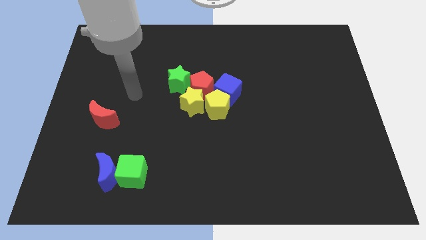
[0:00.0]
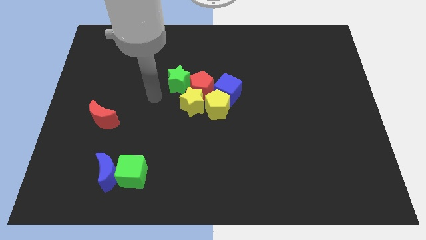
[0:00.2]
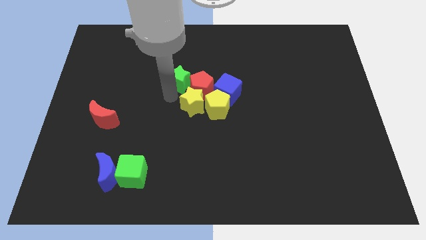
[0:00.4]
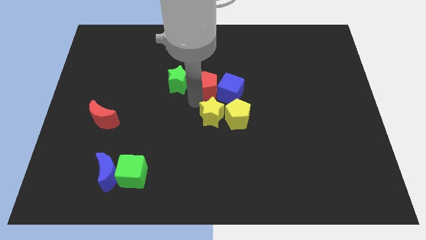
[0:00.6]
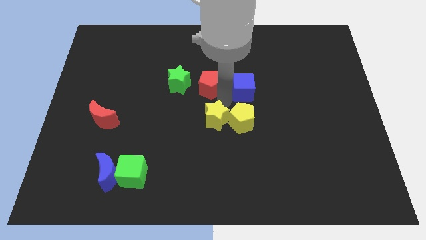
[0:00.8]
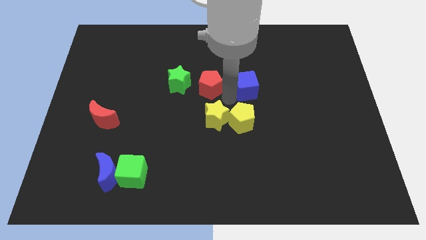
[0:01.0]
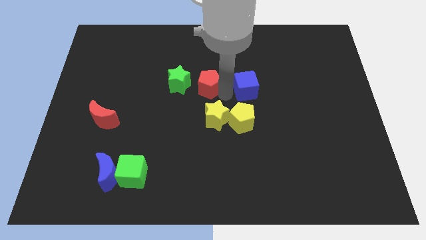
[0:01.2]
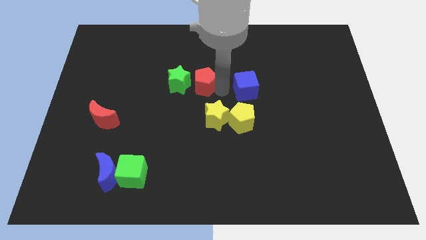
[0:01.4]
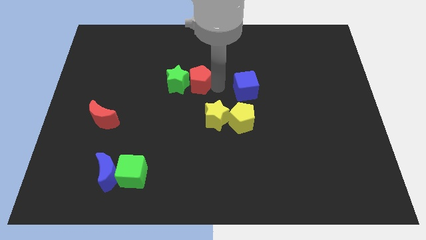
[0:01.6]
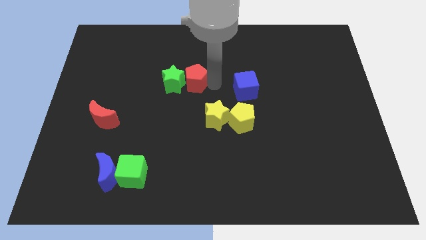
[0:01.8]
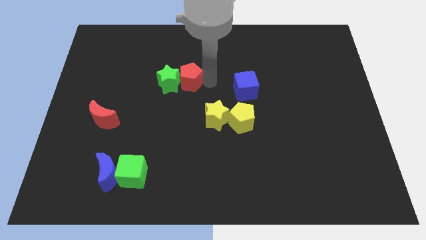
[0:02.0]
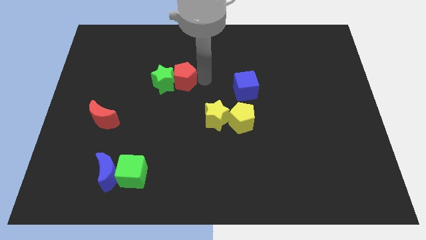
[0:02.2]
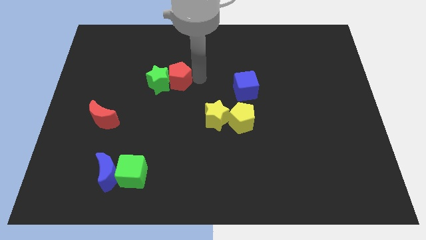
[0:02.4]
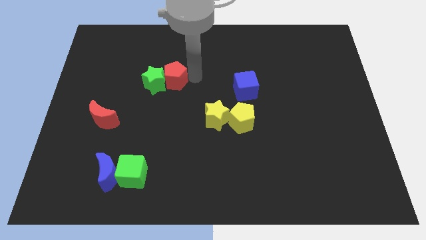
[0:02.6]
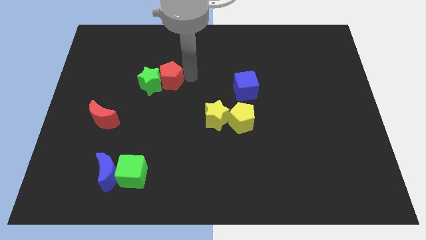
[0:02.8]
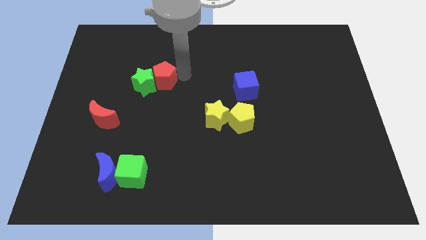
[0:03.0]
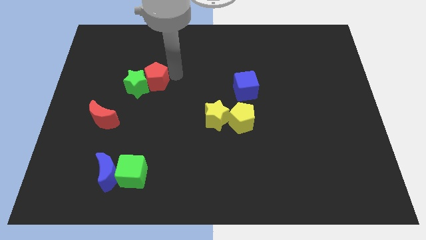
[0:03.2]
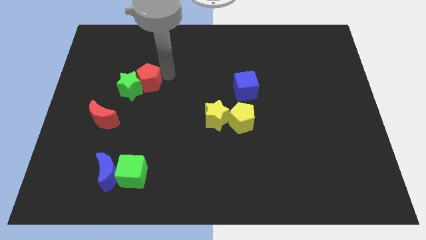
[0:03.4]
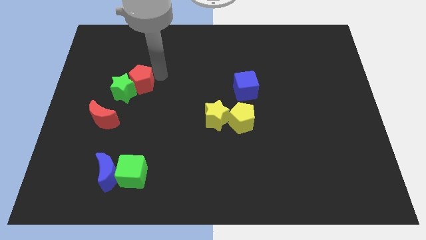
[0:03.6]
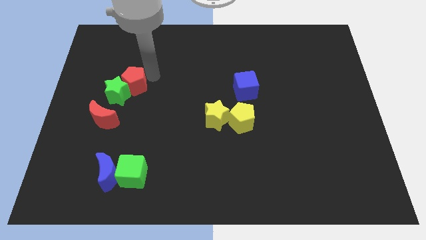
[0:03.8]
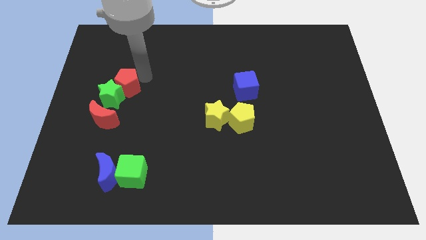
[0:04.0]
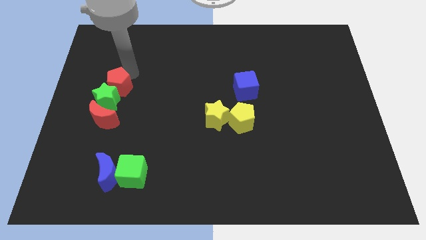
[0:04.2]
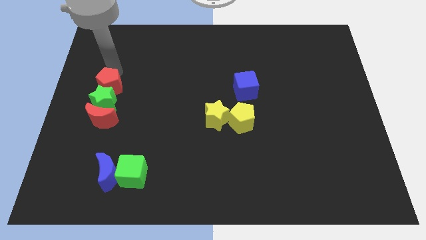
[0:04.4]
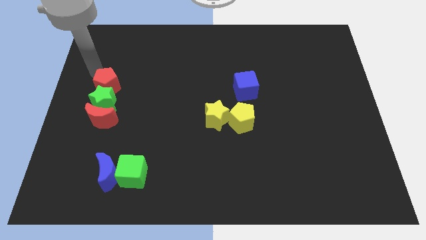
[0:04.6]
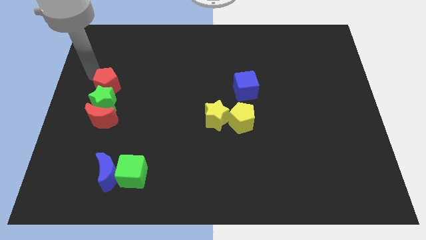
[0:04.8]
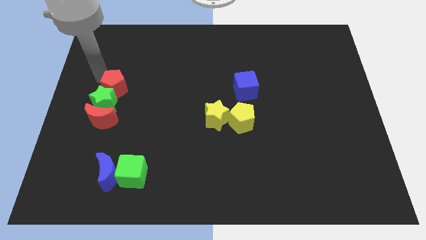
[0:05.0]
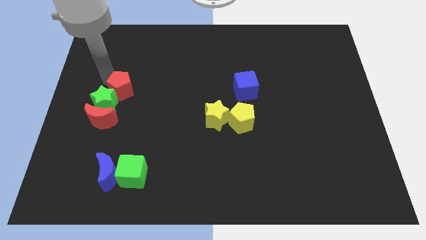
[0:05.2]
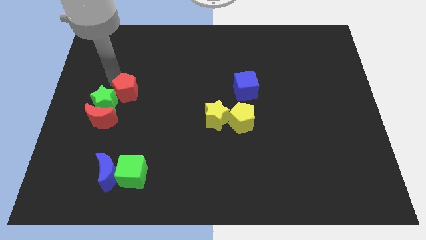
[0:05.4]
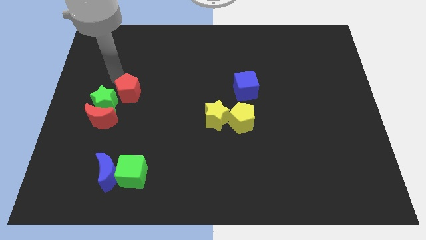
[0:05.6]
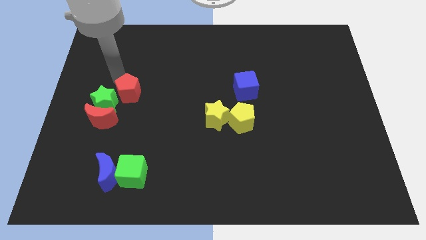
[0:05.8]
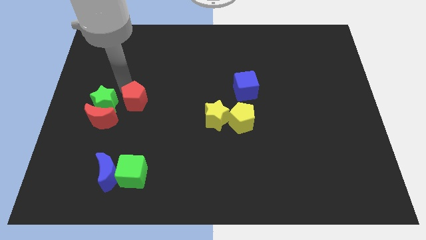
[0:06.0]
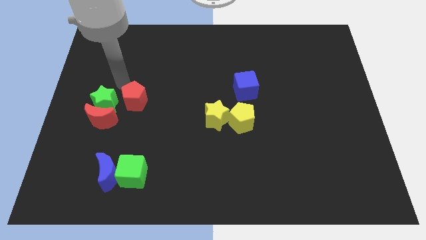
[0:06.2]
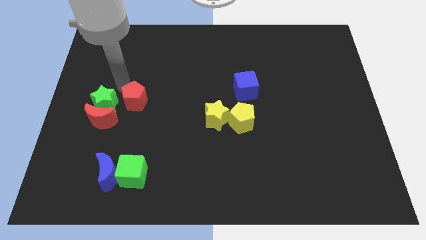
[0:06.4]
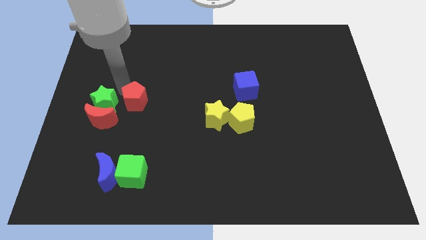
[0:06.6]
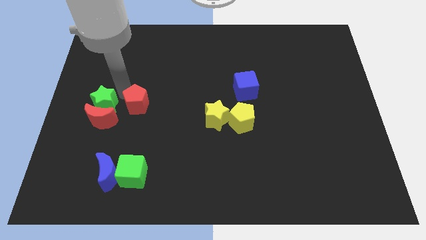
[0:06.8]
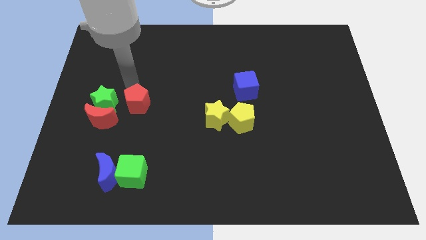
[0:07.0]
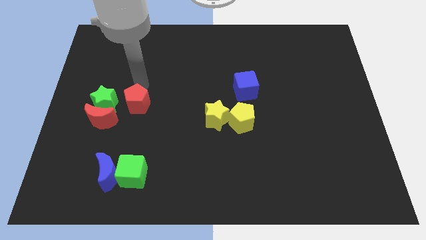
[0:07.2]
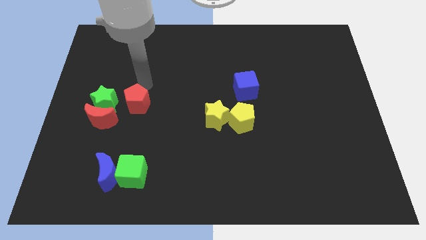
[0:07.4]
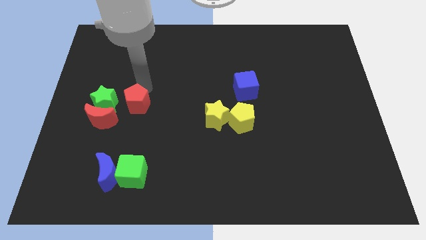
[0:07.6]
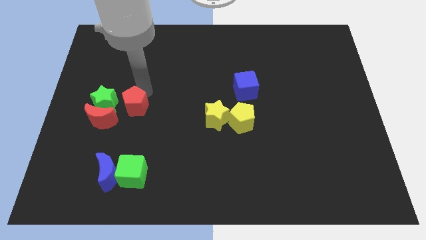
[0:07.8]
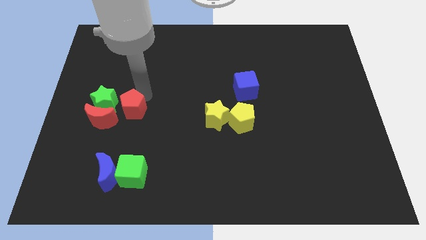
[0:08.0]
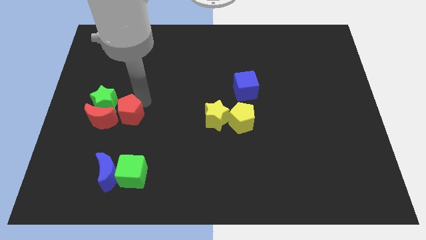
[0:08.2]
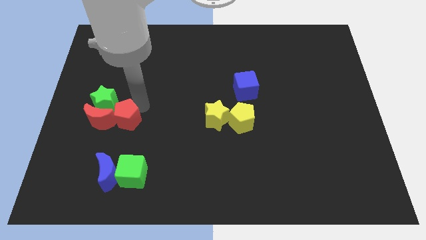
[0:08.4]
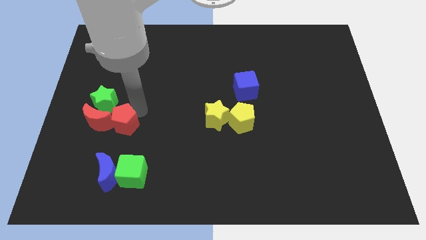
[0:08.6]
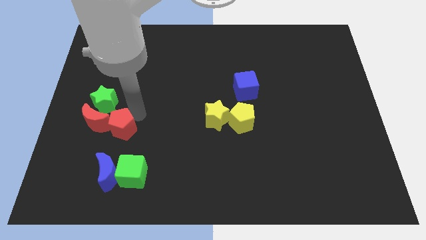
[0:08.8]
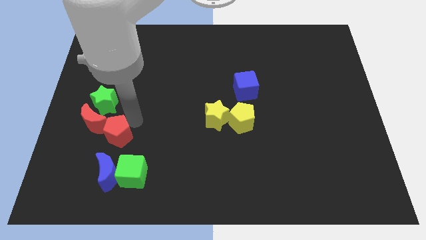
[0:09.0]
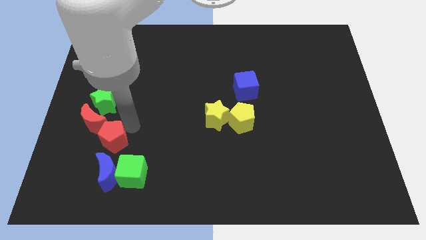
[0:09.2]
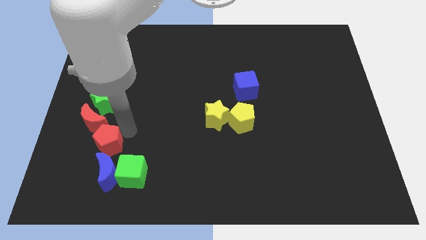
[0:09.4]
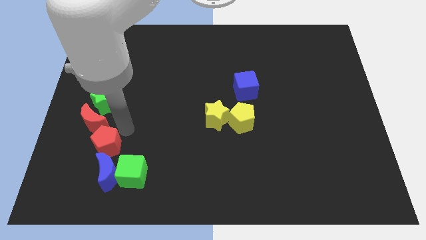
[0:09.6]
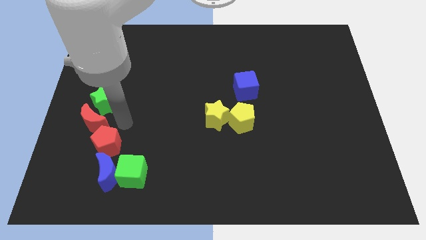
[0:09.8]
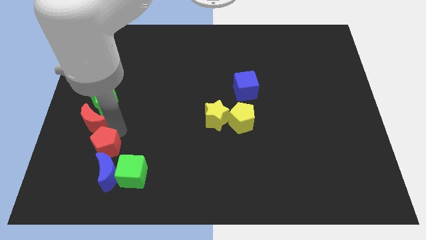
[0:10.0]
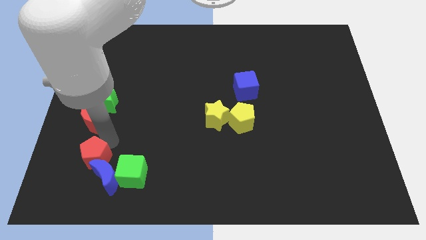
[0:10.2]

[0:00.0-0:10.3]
put the red pentagon just left of the green cube

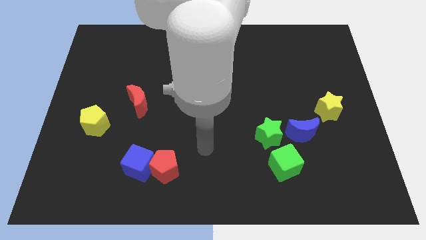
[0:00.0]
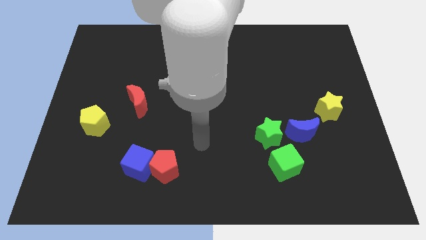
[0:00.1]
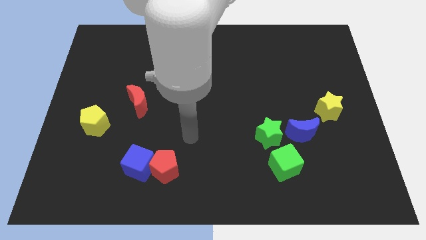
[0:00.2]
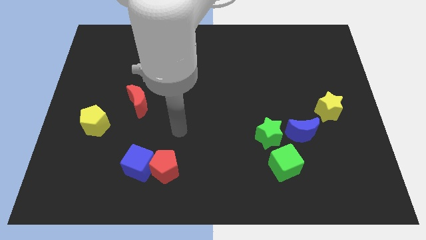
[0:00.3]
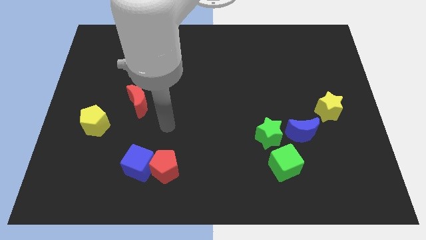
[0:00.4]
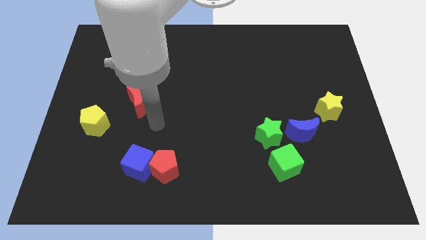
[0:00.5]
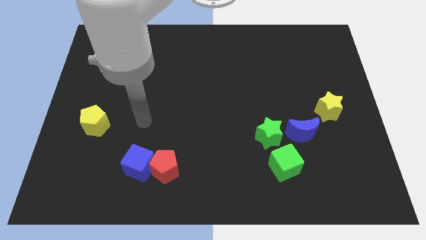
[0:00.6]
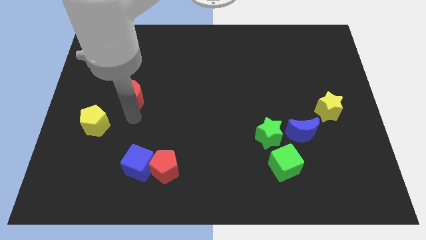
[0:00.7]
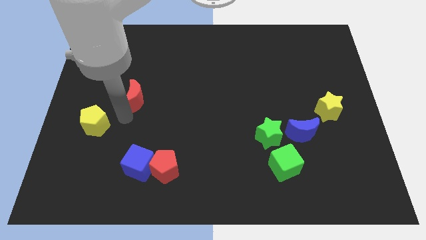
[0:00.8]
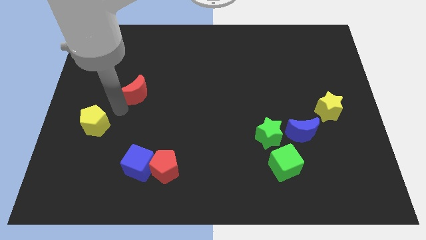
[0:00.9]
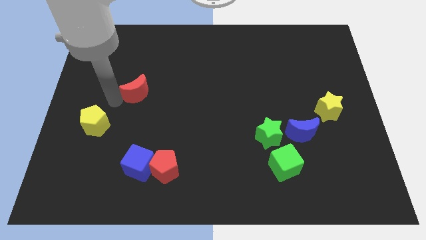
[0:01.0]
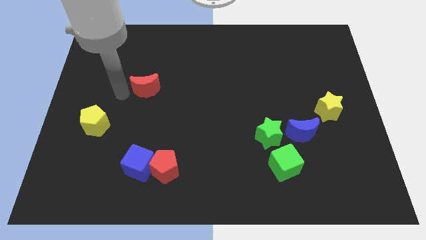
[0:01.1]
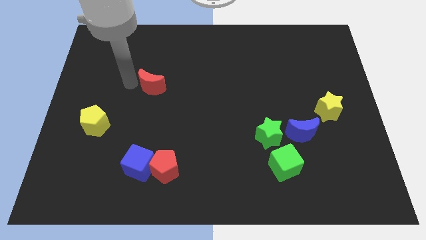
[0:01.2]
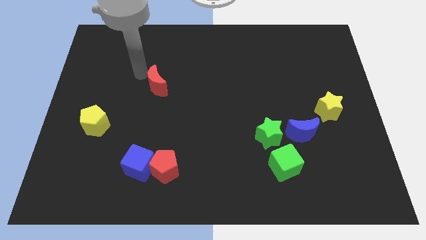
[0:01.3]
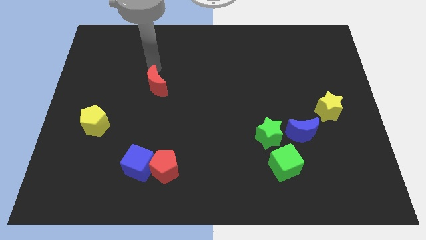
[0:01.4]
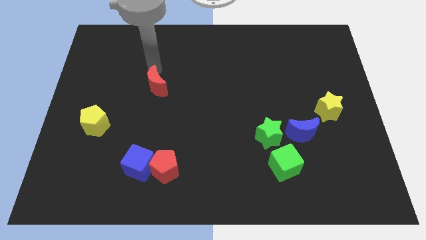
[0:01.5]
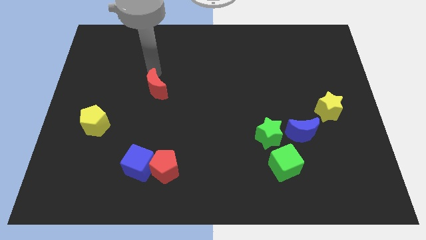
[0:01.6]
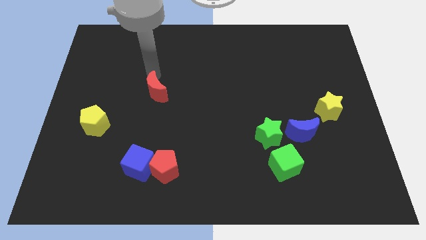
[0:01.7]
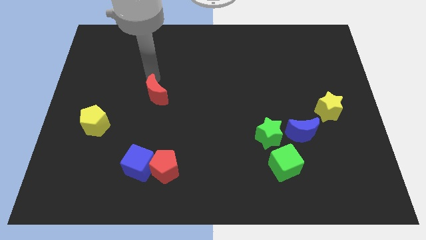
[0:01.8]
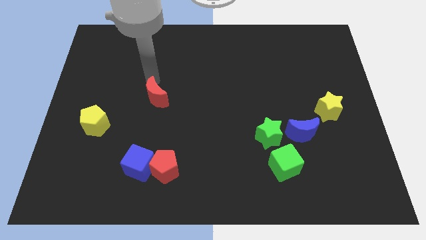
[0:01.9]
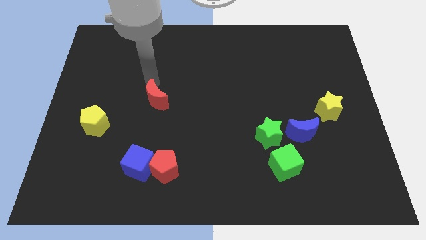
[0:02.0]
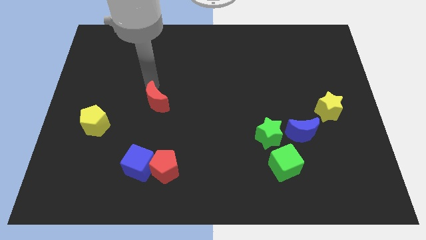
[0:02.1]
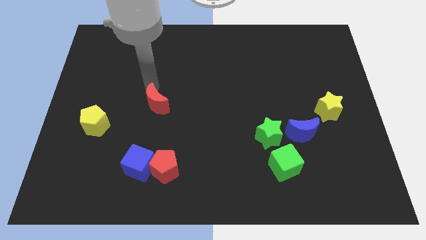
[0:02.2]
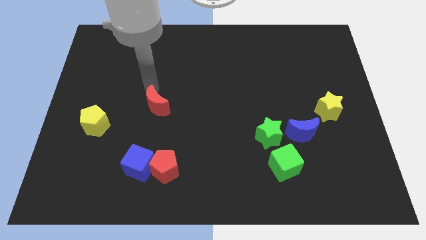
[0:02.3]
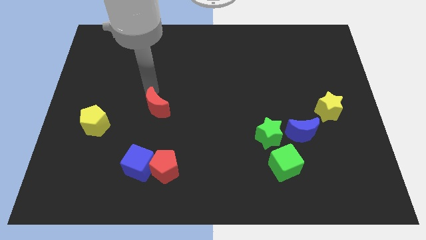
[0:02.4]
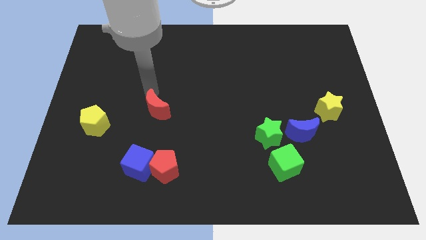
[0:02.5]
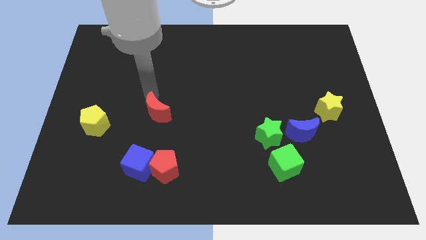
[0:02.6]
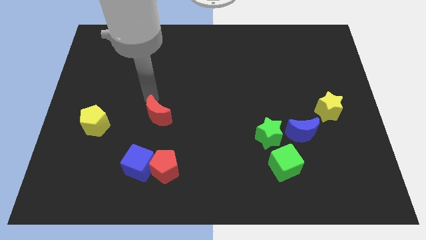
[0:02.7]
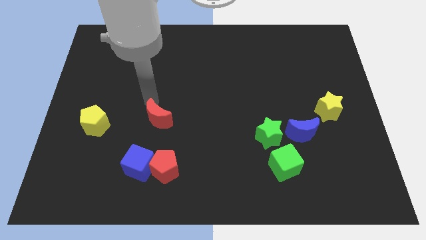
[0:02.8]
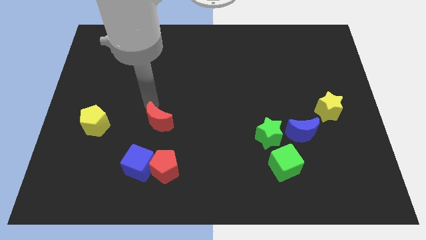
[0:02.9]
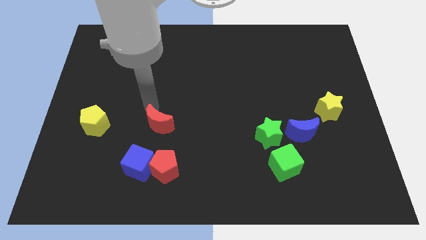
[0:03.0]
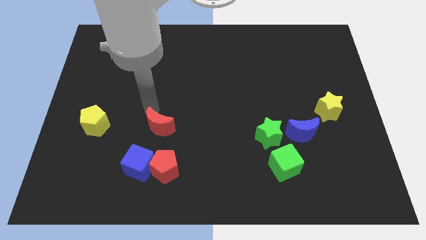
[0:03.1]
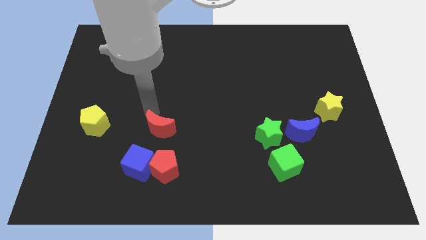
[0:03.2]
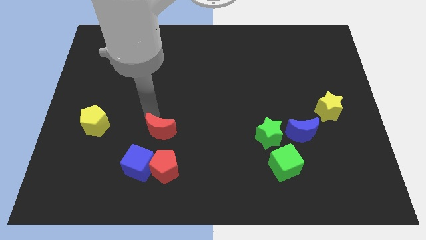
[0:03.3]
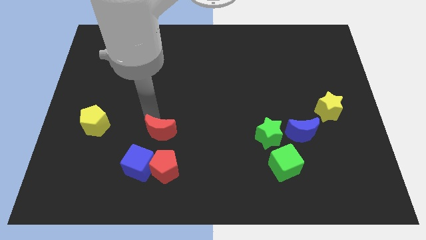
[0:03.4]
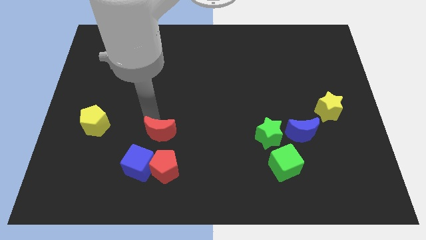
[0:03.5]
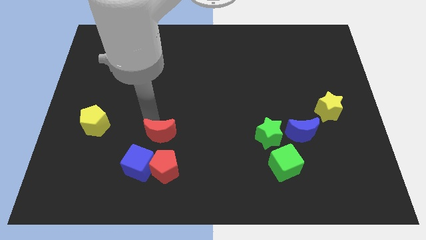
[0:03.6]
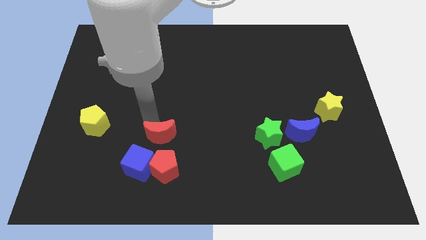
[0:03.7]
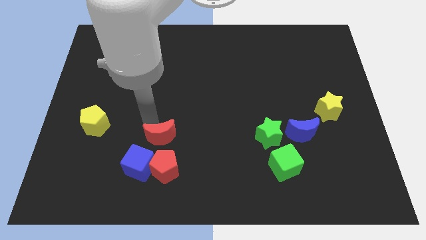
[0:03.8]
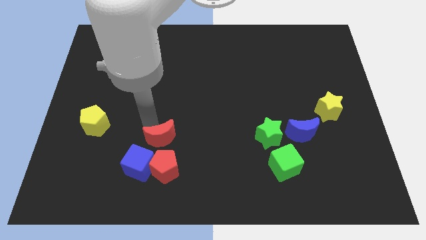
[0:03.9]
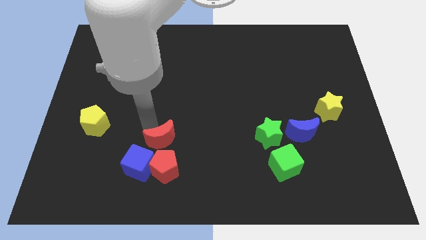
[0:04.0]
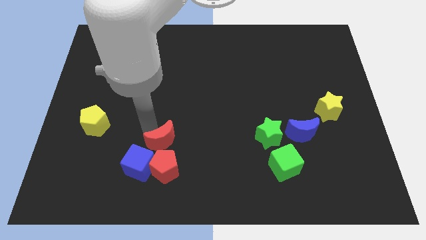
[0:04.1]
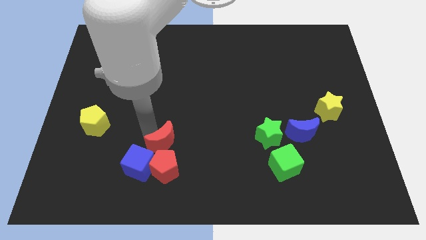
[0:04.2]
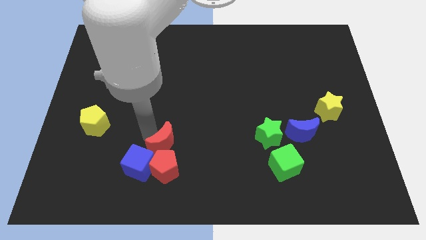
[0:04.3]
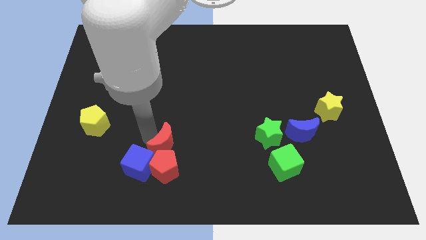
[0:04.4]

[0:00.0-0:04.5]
slide the red moon to the top right side of the red pentagon
